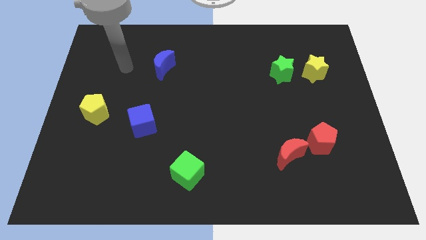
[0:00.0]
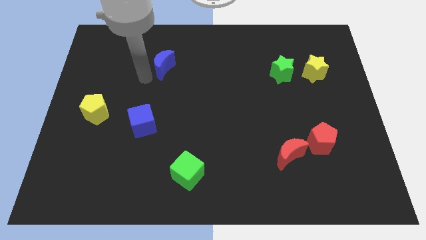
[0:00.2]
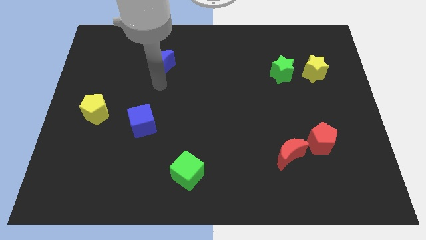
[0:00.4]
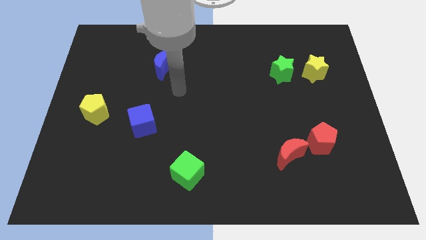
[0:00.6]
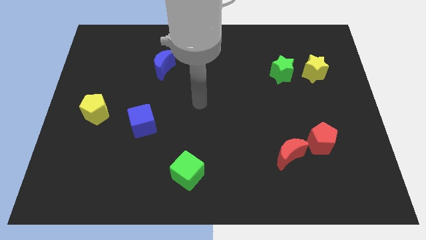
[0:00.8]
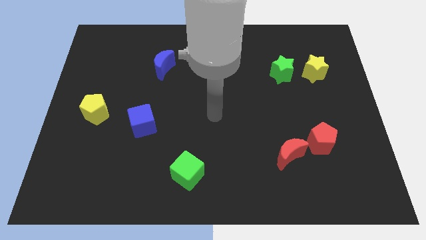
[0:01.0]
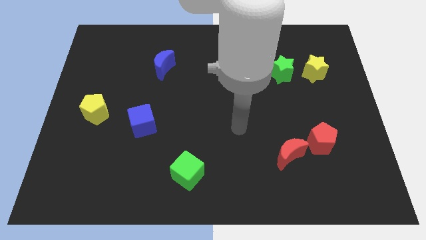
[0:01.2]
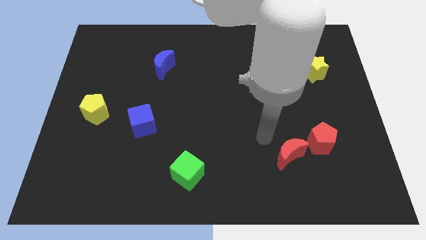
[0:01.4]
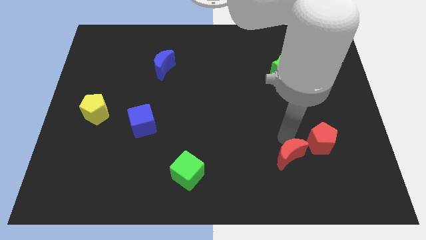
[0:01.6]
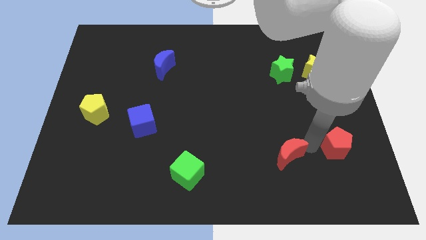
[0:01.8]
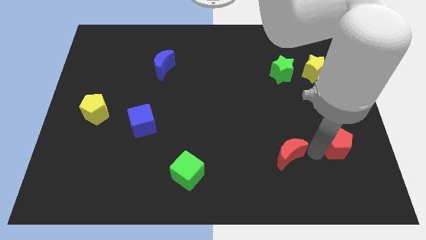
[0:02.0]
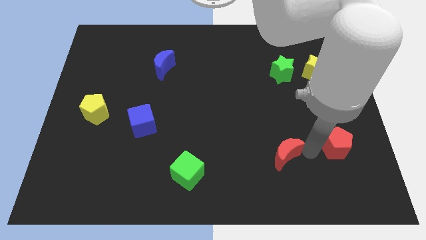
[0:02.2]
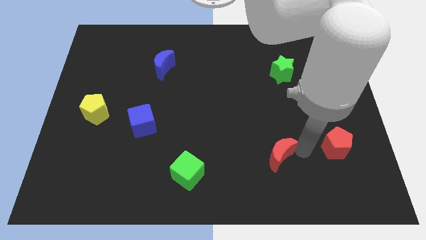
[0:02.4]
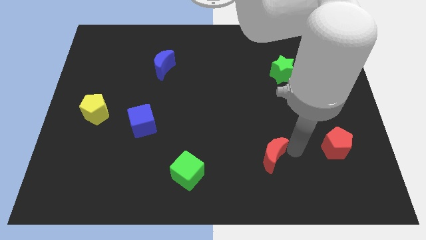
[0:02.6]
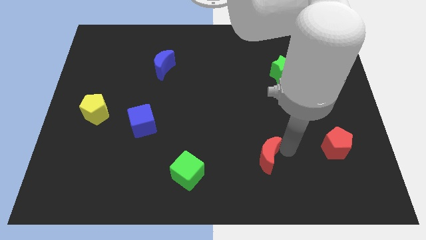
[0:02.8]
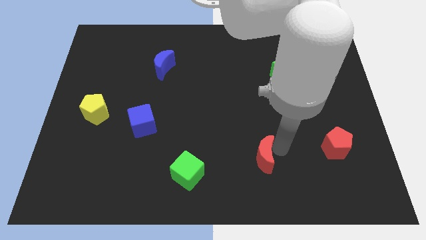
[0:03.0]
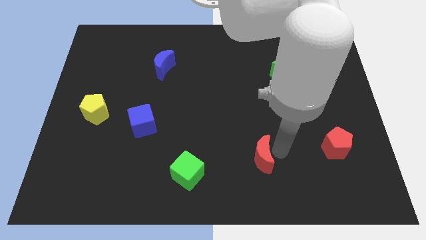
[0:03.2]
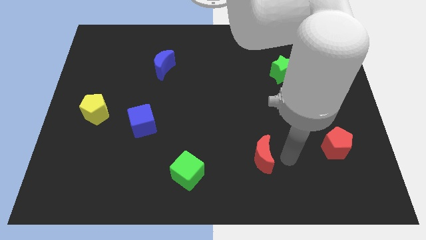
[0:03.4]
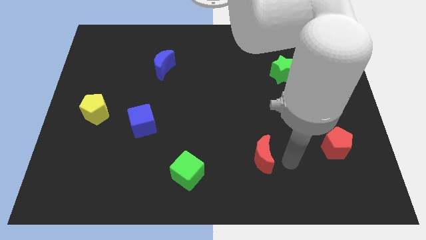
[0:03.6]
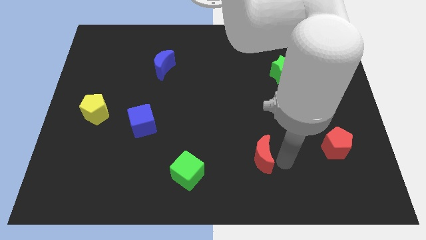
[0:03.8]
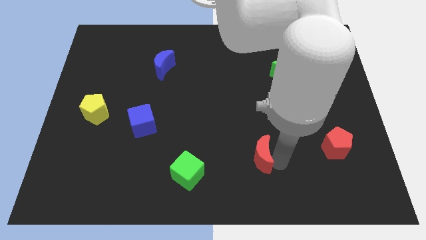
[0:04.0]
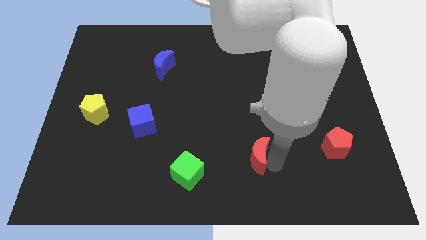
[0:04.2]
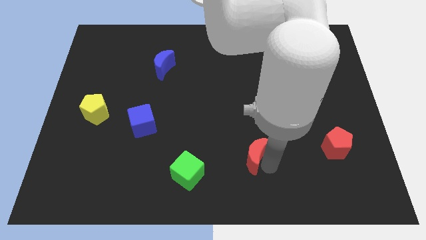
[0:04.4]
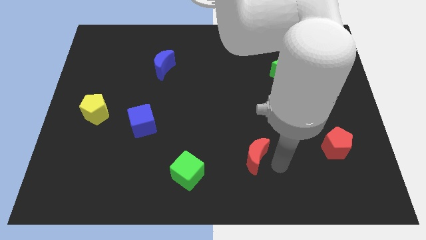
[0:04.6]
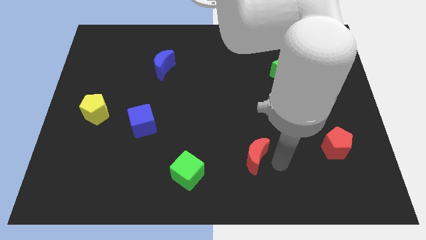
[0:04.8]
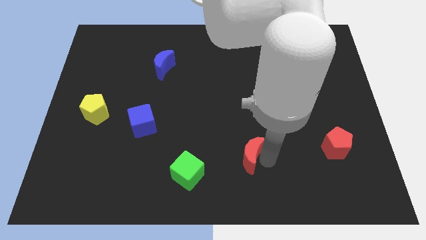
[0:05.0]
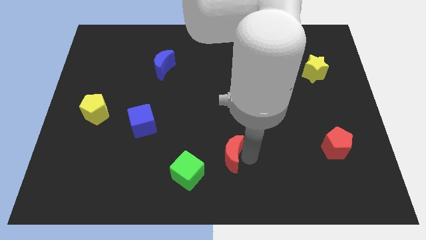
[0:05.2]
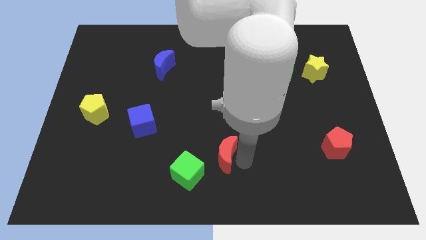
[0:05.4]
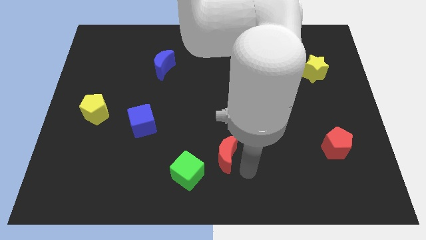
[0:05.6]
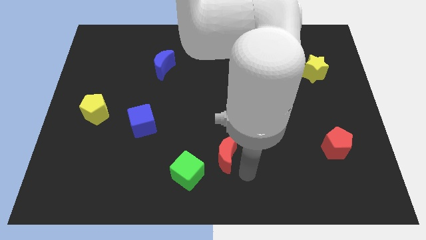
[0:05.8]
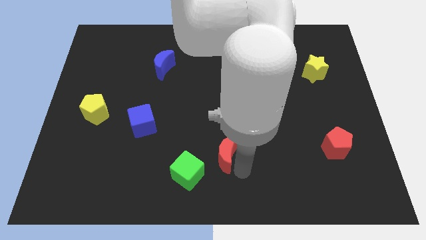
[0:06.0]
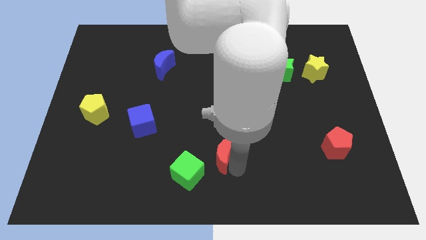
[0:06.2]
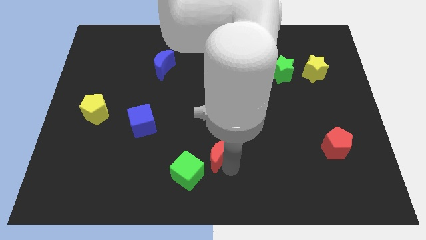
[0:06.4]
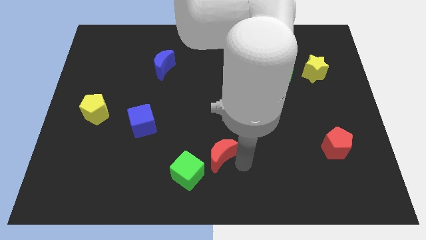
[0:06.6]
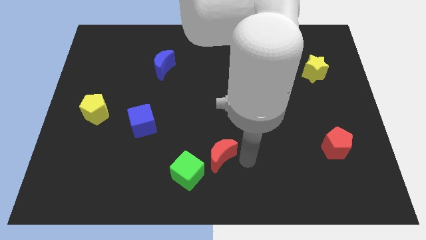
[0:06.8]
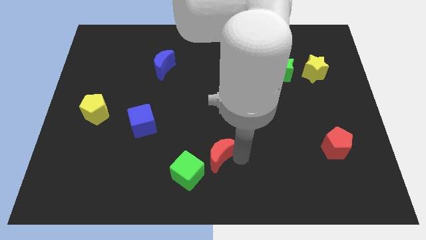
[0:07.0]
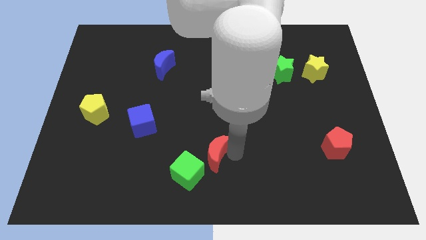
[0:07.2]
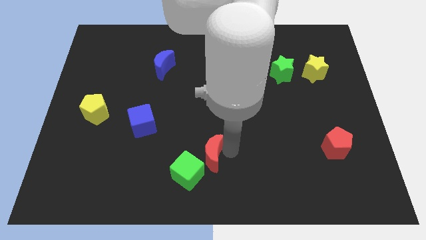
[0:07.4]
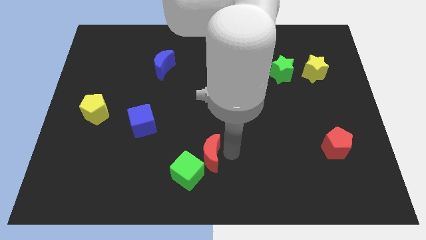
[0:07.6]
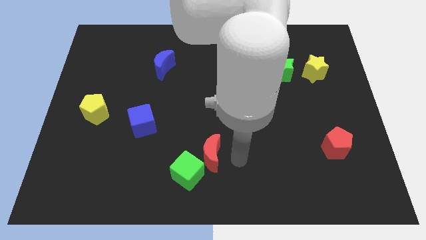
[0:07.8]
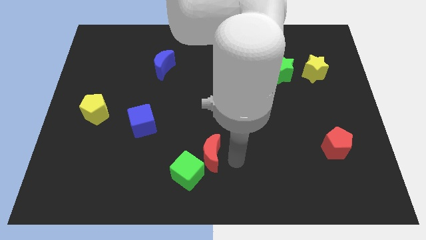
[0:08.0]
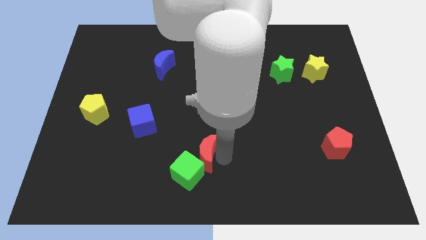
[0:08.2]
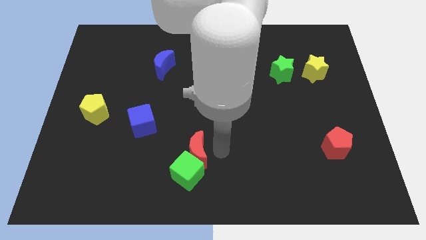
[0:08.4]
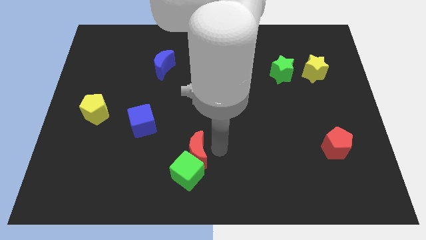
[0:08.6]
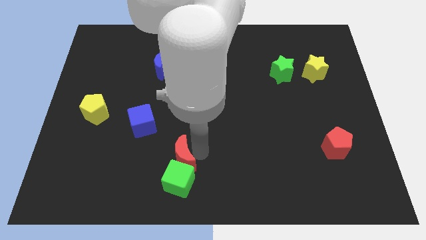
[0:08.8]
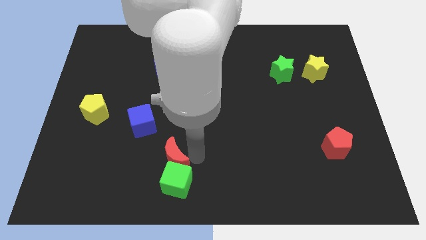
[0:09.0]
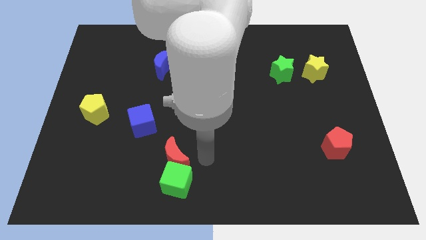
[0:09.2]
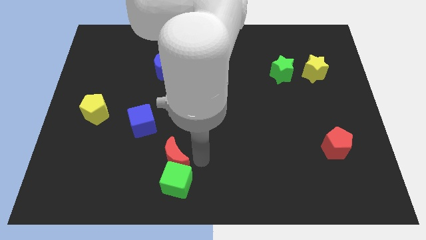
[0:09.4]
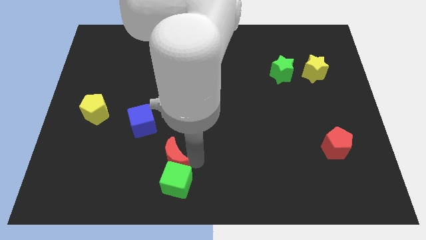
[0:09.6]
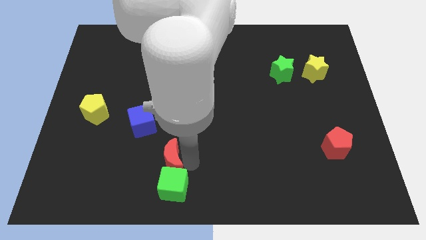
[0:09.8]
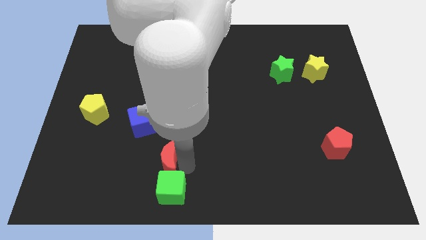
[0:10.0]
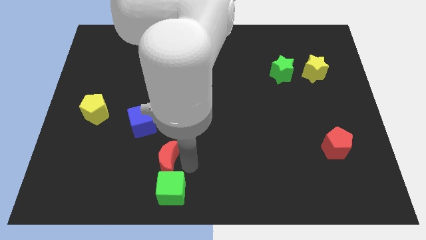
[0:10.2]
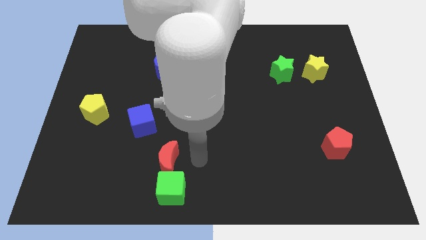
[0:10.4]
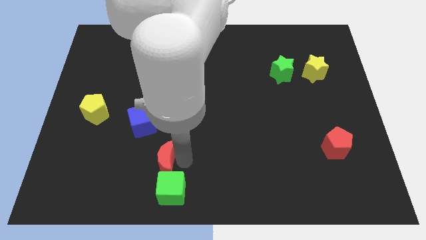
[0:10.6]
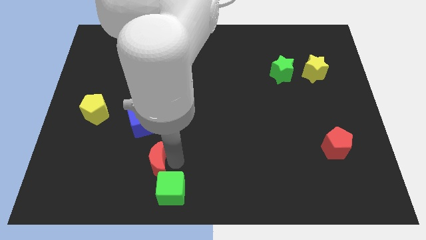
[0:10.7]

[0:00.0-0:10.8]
push the red moon to the bottom of the blue cube

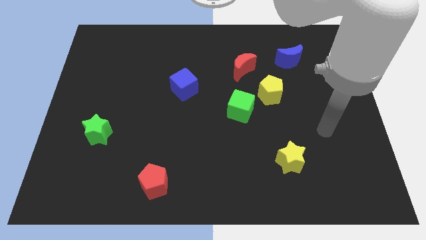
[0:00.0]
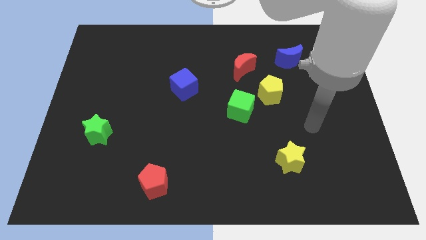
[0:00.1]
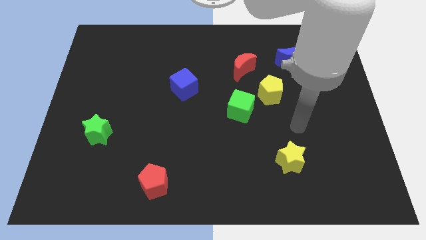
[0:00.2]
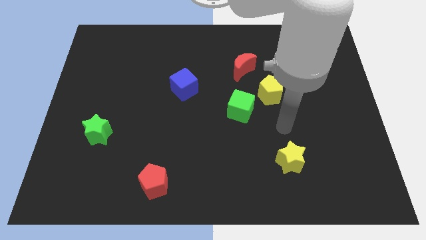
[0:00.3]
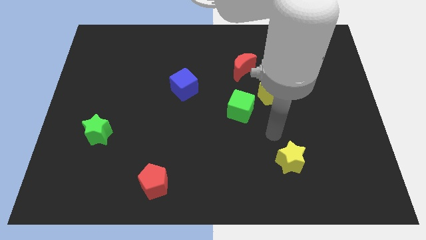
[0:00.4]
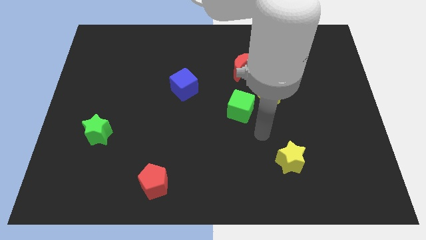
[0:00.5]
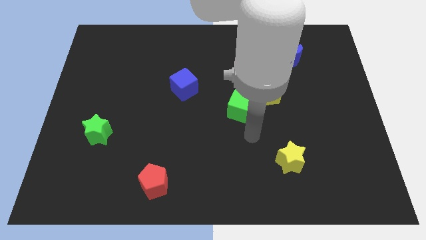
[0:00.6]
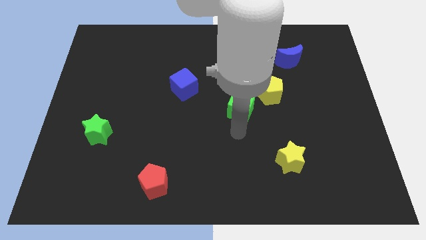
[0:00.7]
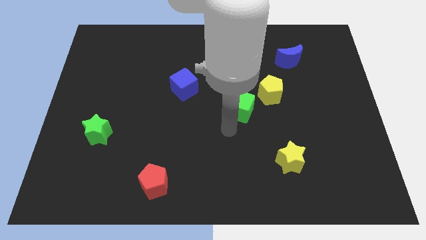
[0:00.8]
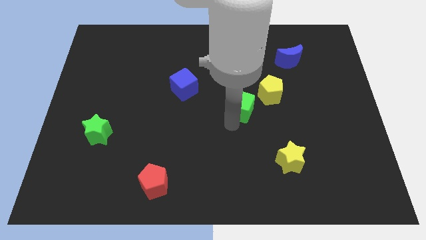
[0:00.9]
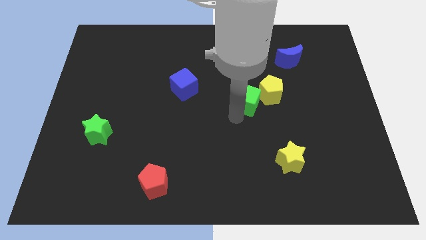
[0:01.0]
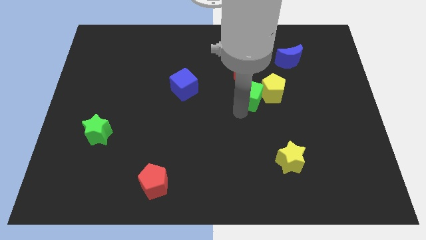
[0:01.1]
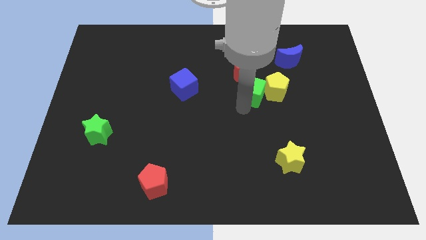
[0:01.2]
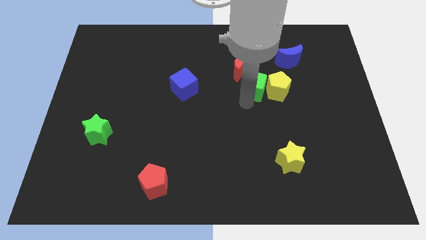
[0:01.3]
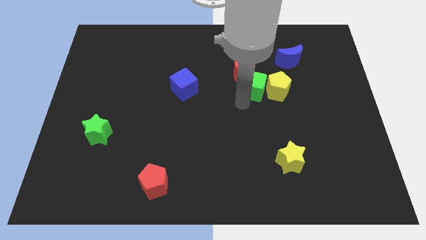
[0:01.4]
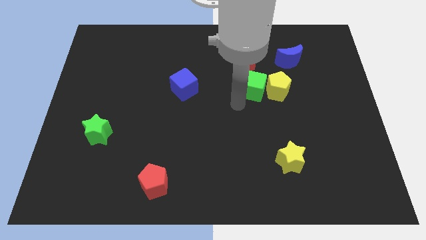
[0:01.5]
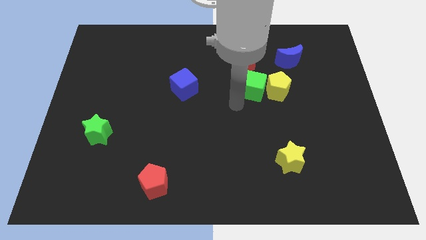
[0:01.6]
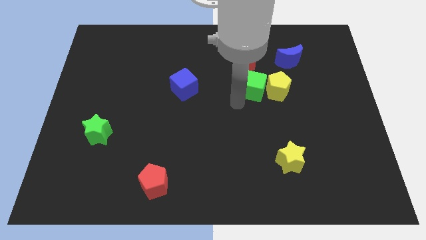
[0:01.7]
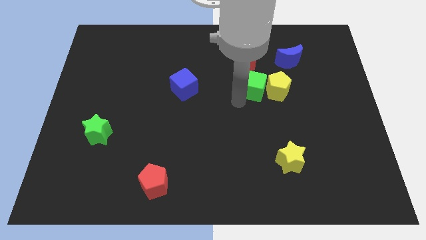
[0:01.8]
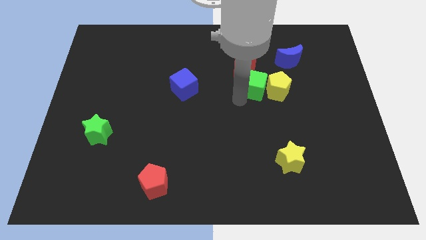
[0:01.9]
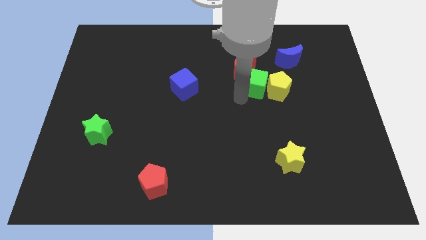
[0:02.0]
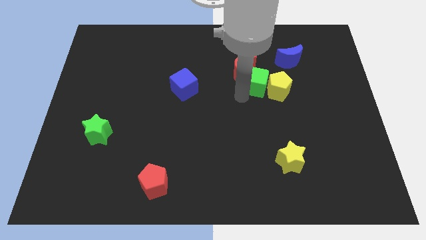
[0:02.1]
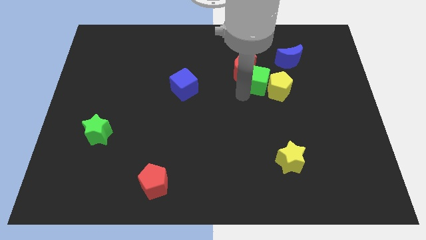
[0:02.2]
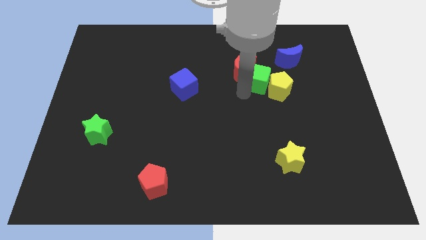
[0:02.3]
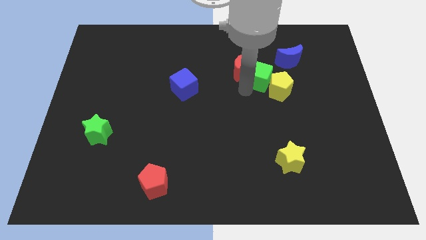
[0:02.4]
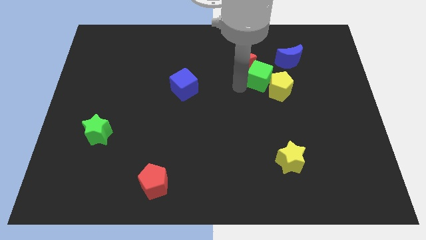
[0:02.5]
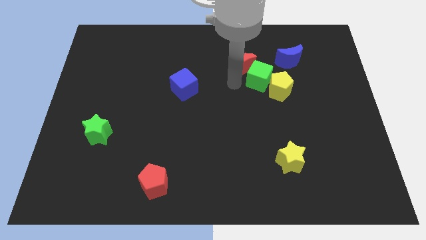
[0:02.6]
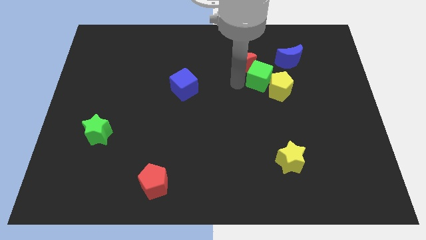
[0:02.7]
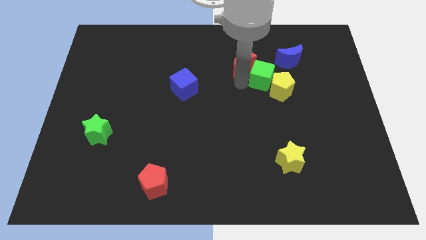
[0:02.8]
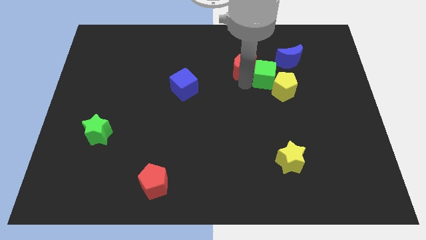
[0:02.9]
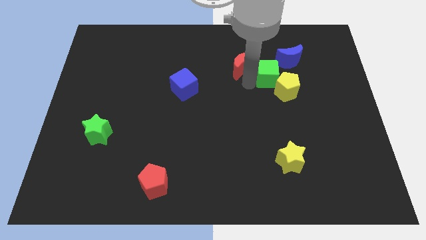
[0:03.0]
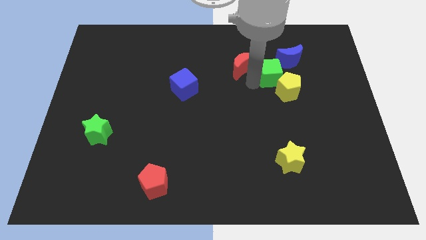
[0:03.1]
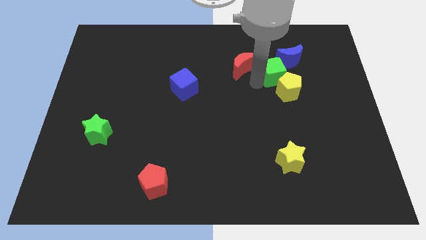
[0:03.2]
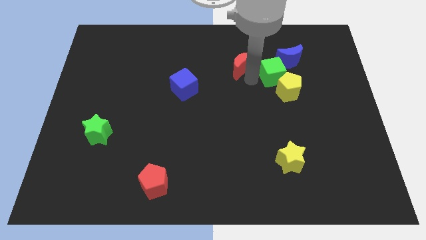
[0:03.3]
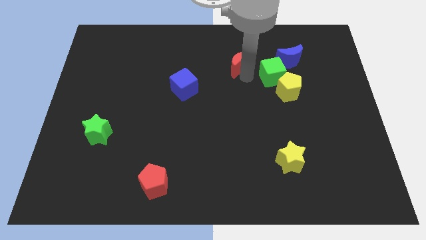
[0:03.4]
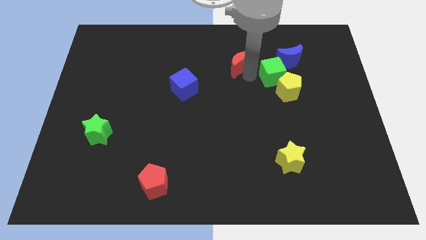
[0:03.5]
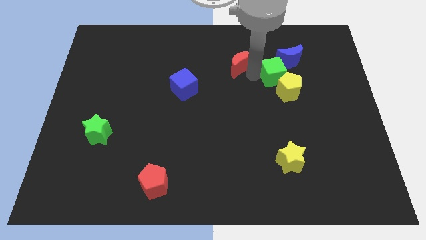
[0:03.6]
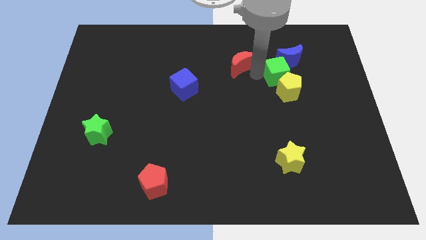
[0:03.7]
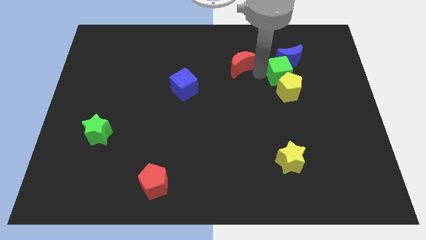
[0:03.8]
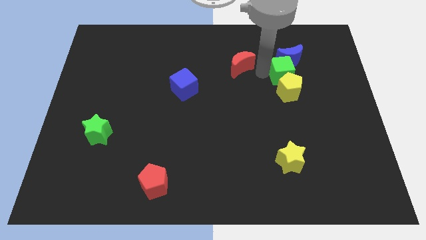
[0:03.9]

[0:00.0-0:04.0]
slide the green cube diagonally up and to the right of the yellow pentagon
